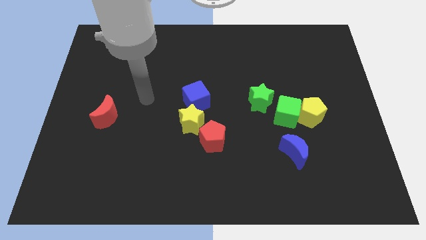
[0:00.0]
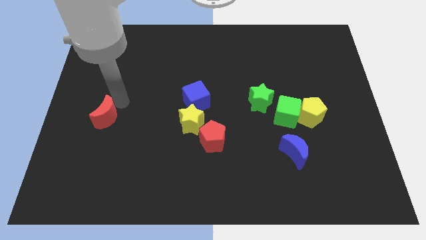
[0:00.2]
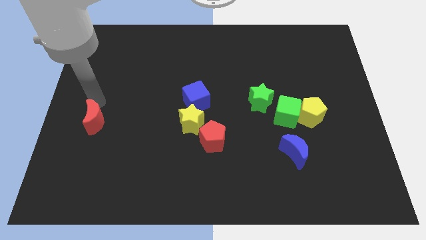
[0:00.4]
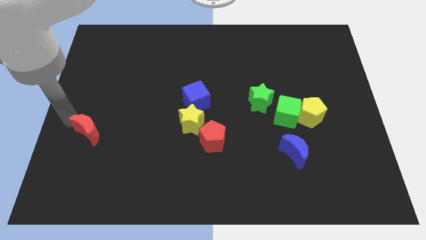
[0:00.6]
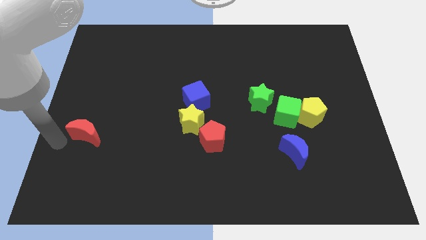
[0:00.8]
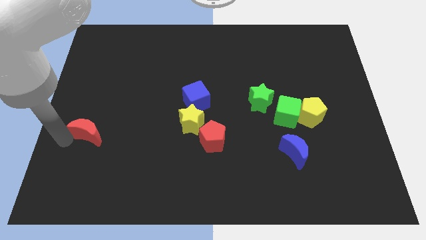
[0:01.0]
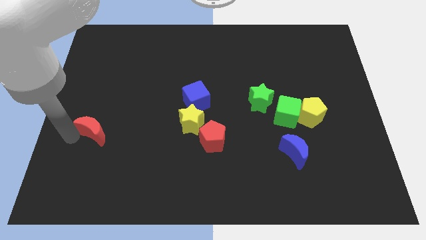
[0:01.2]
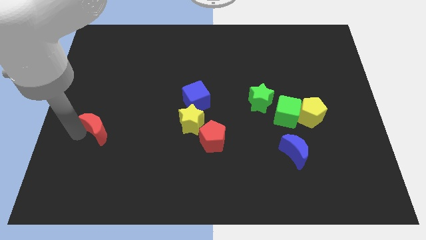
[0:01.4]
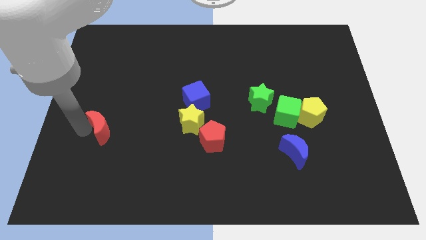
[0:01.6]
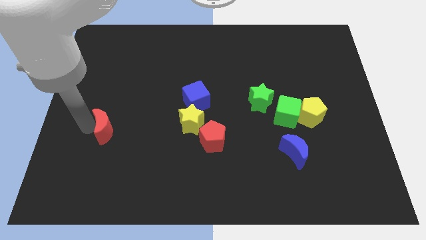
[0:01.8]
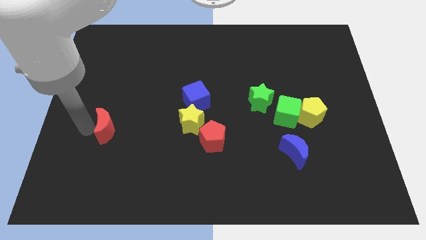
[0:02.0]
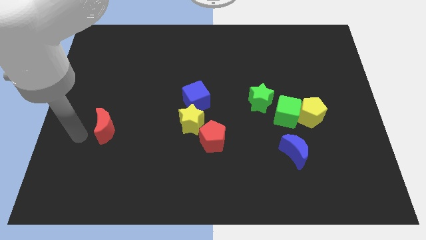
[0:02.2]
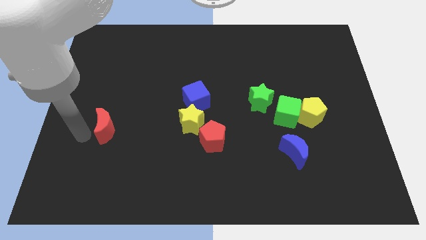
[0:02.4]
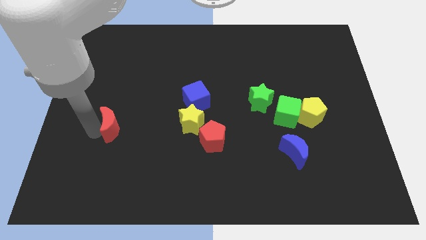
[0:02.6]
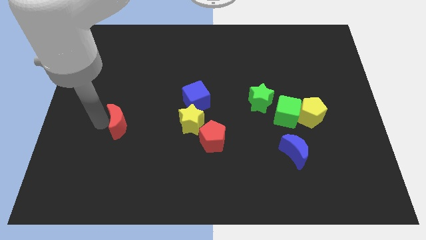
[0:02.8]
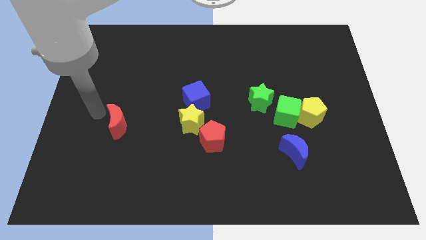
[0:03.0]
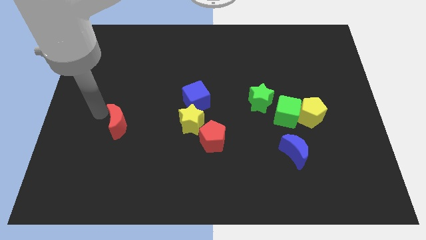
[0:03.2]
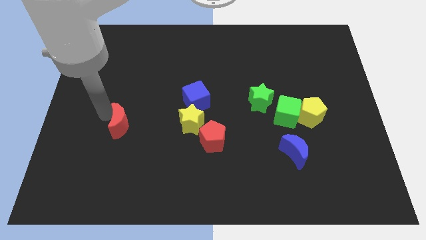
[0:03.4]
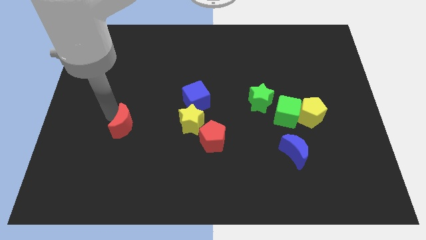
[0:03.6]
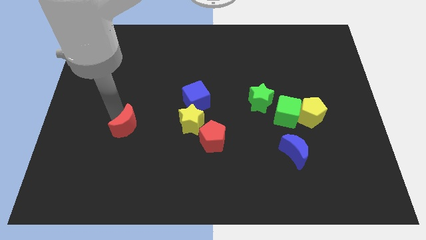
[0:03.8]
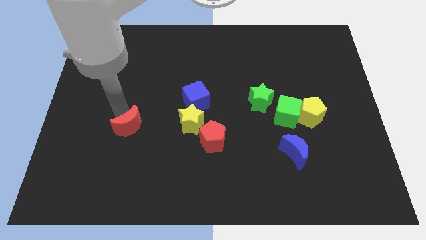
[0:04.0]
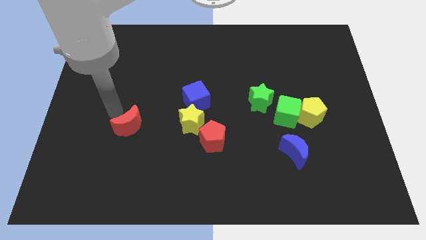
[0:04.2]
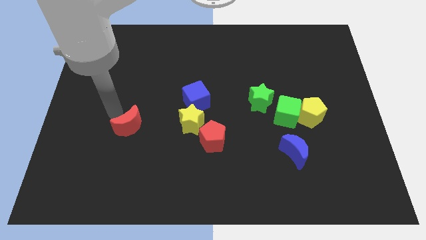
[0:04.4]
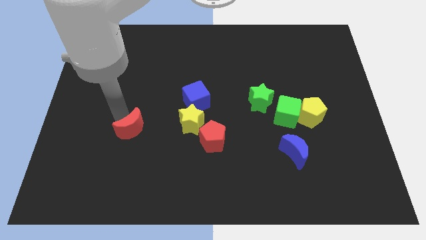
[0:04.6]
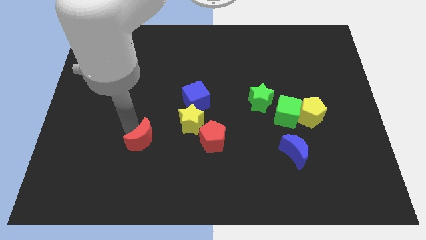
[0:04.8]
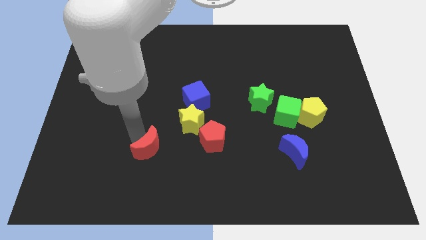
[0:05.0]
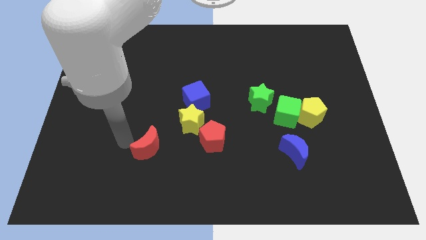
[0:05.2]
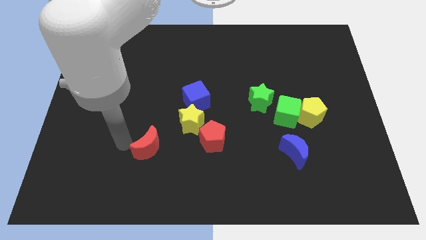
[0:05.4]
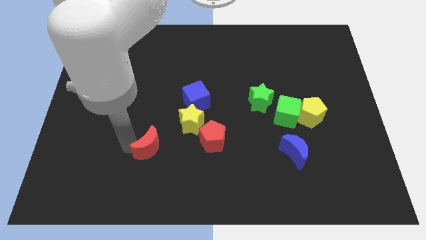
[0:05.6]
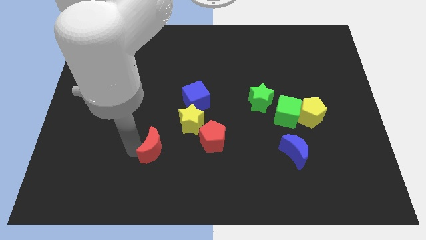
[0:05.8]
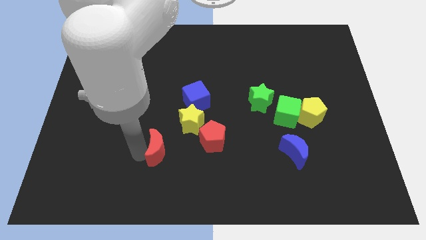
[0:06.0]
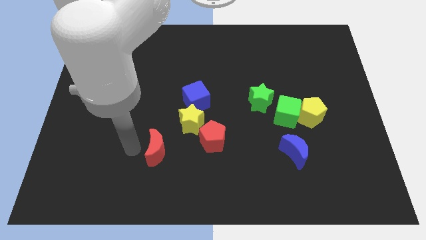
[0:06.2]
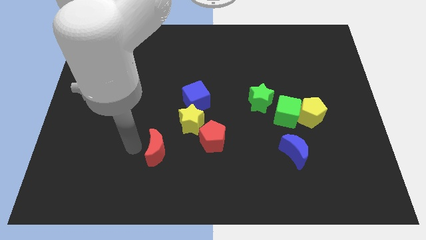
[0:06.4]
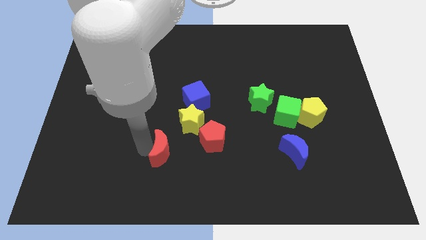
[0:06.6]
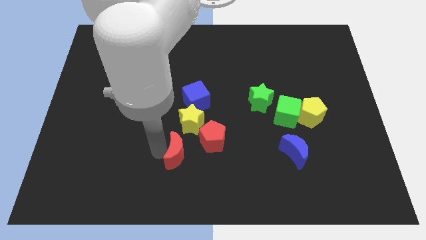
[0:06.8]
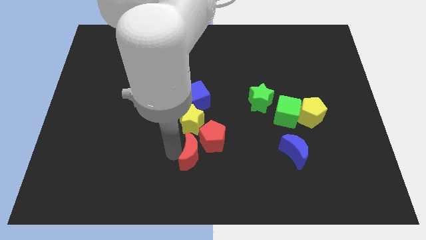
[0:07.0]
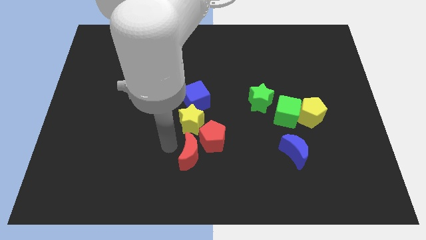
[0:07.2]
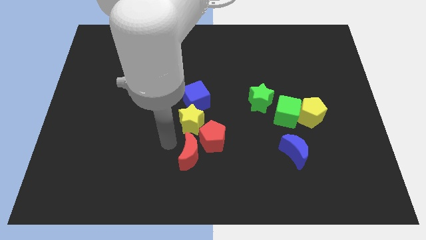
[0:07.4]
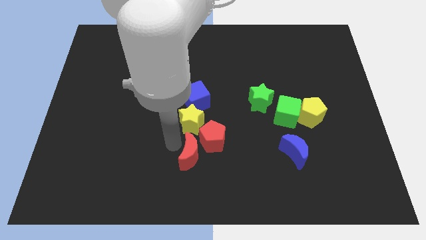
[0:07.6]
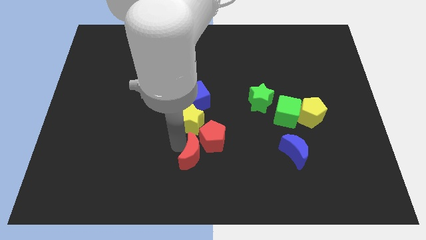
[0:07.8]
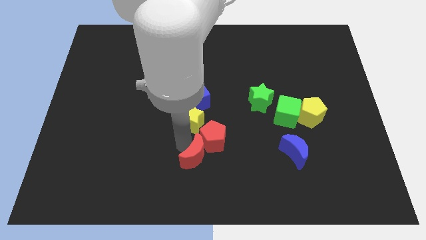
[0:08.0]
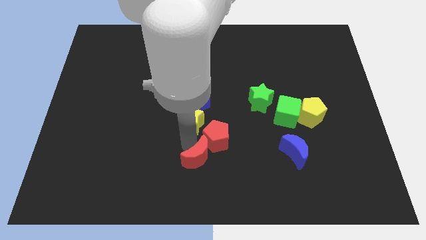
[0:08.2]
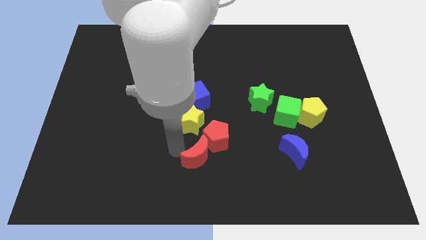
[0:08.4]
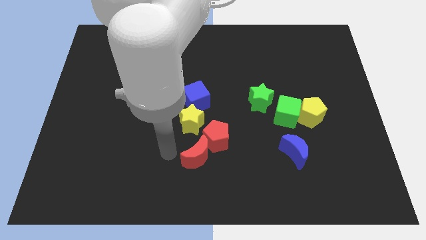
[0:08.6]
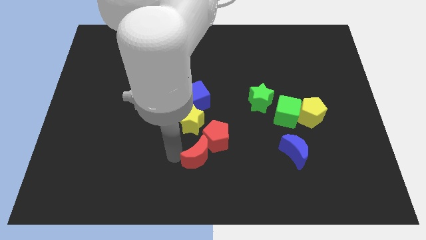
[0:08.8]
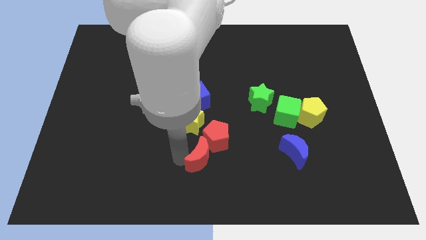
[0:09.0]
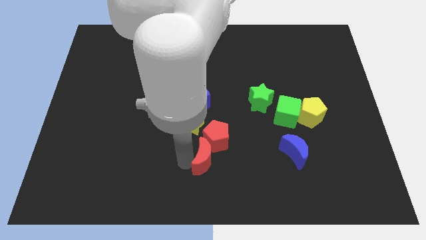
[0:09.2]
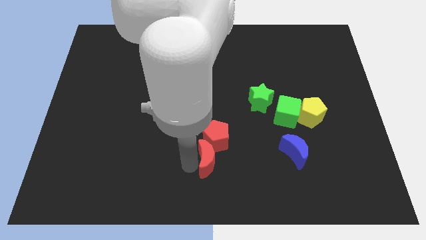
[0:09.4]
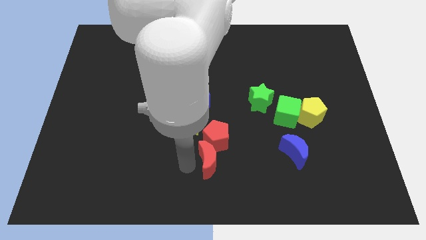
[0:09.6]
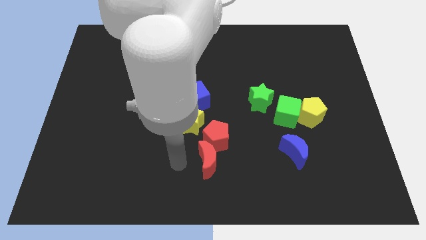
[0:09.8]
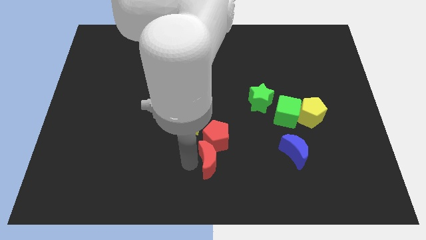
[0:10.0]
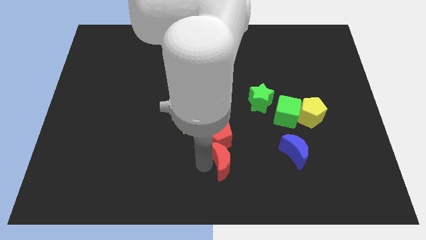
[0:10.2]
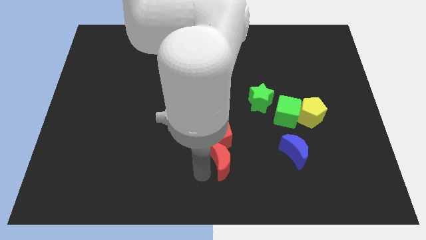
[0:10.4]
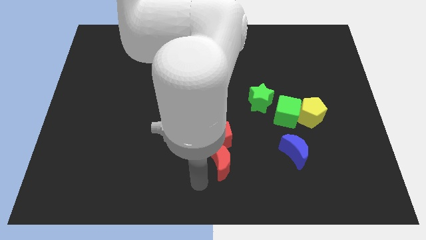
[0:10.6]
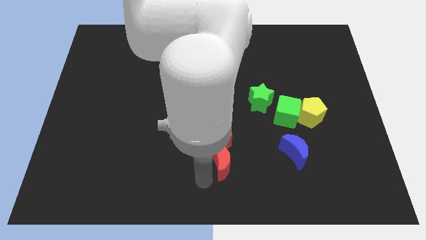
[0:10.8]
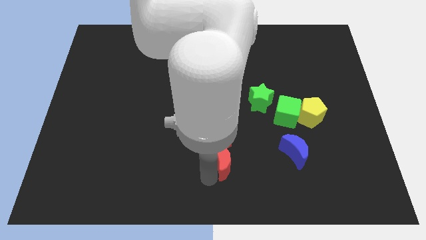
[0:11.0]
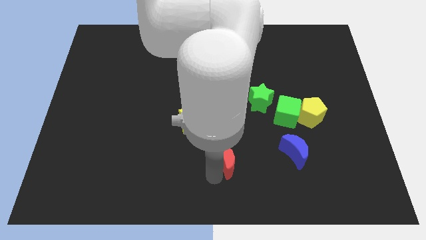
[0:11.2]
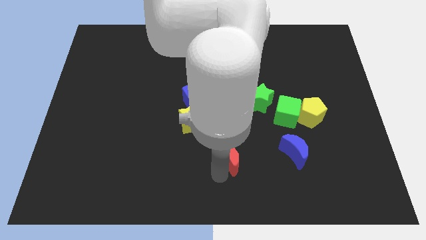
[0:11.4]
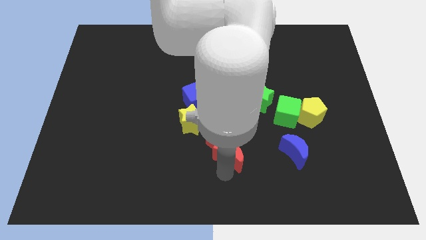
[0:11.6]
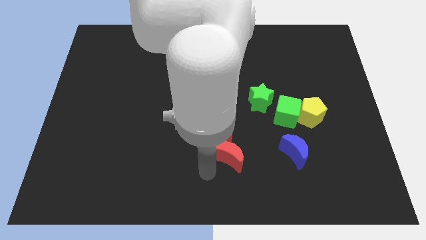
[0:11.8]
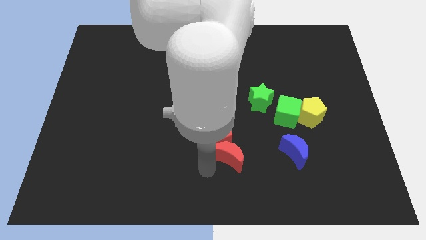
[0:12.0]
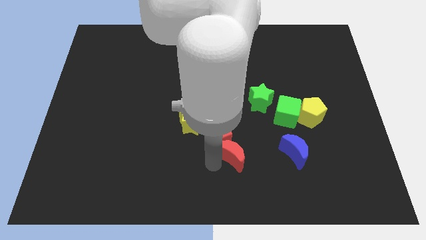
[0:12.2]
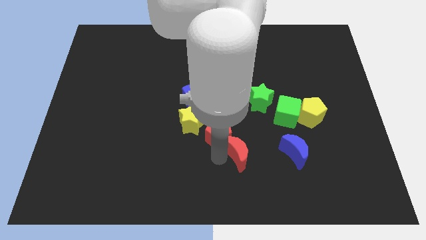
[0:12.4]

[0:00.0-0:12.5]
push the red moon to the right of the red pentagon

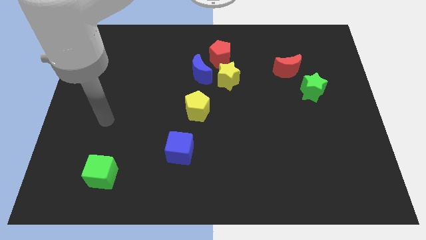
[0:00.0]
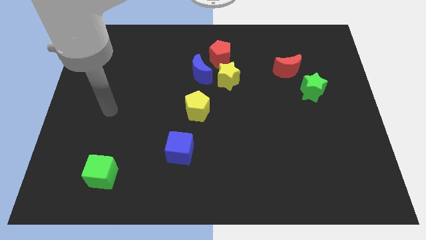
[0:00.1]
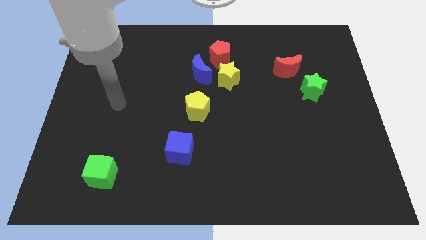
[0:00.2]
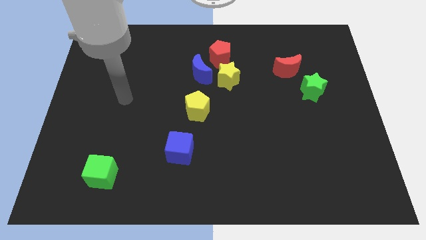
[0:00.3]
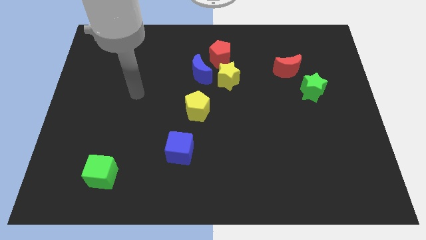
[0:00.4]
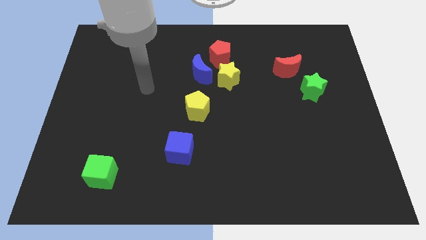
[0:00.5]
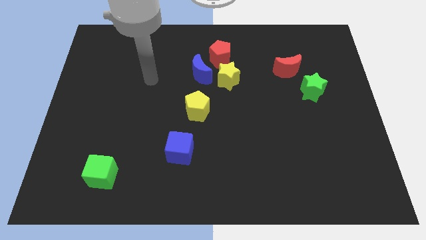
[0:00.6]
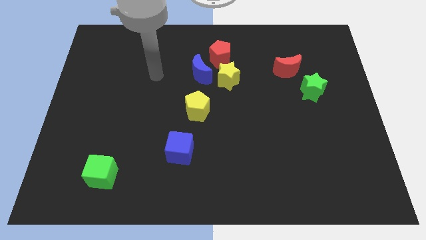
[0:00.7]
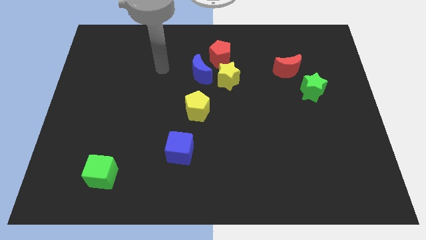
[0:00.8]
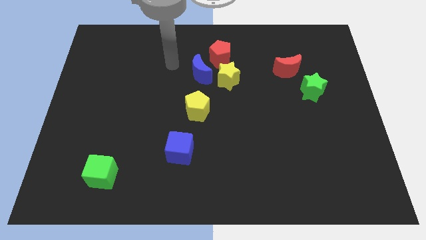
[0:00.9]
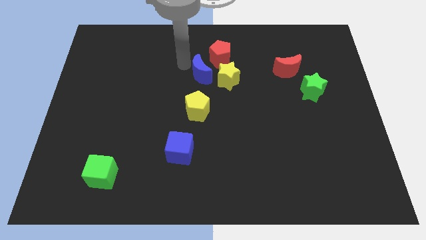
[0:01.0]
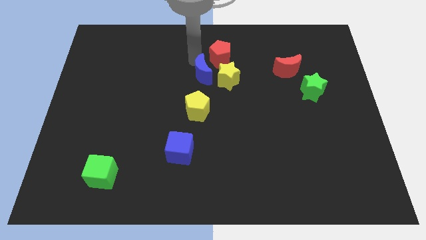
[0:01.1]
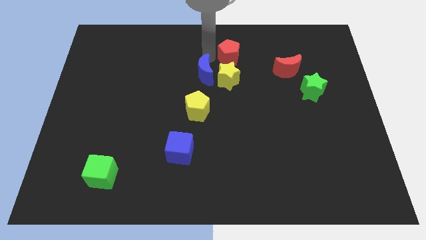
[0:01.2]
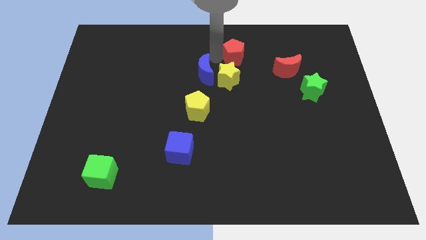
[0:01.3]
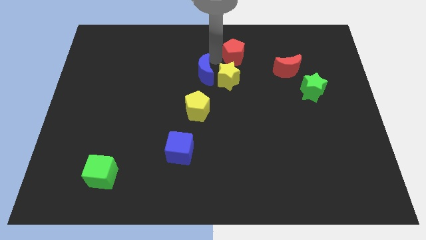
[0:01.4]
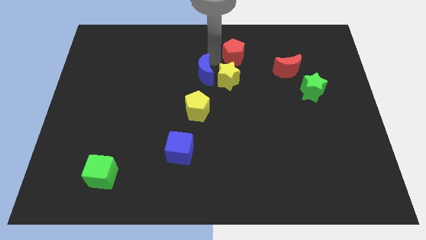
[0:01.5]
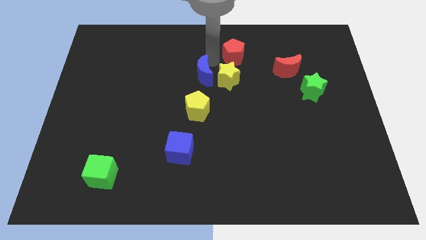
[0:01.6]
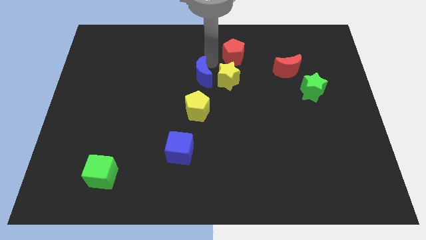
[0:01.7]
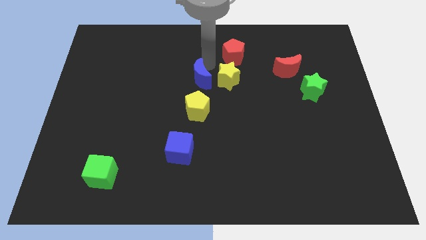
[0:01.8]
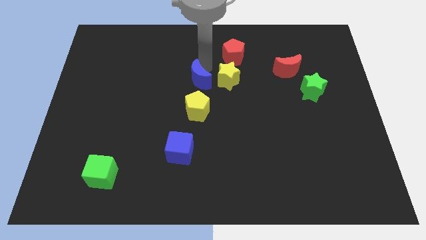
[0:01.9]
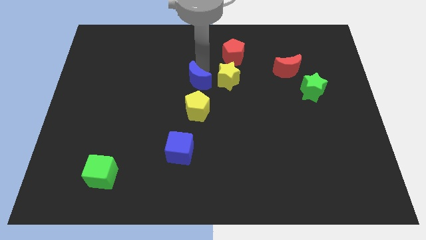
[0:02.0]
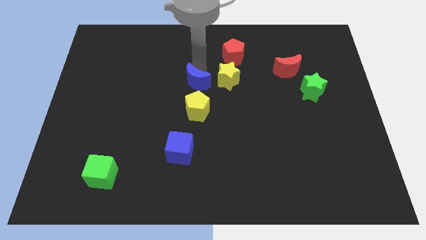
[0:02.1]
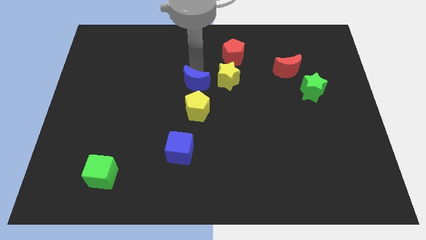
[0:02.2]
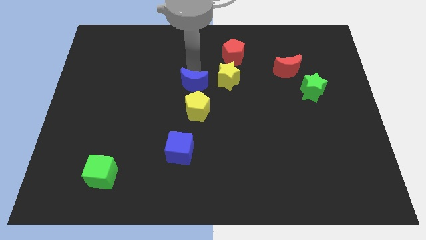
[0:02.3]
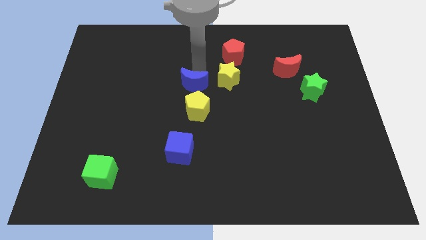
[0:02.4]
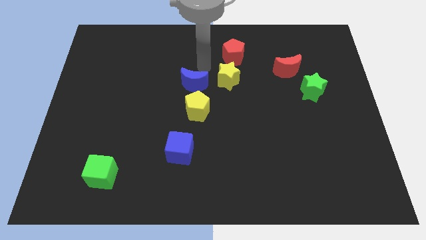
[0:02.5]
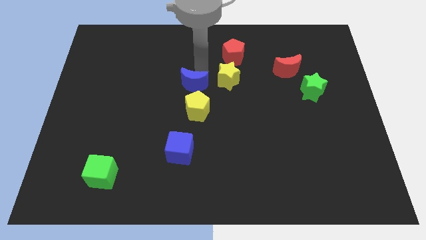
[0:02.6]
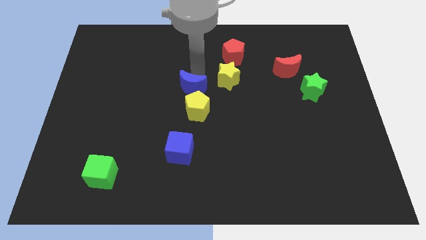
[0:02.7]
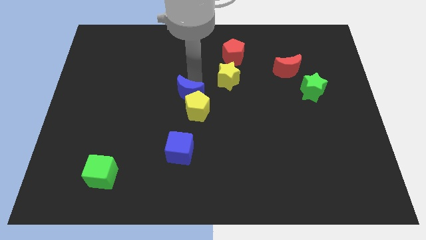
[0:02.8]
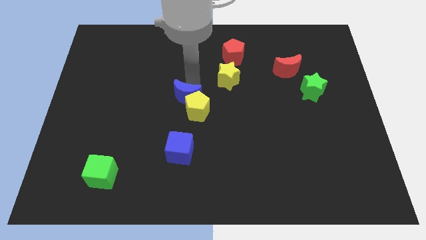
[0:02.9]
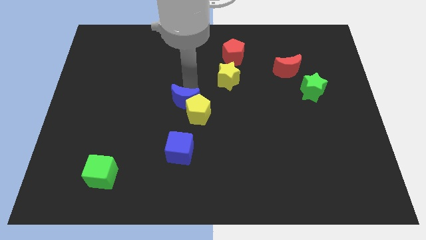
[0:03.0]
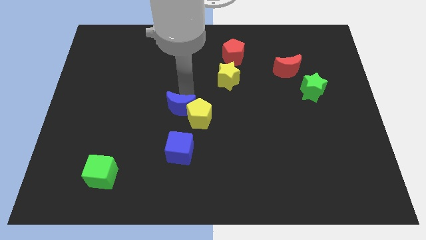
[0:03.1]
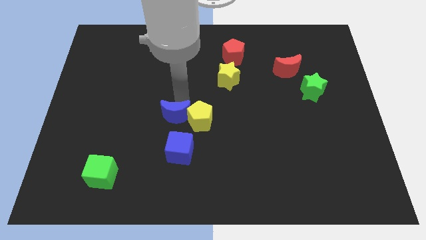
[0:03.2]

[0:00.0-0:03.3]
move the blue moon to the bottom left of the yellow pentagon
